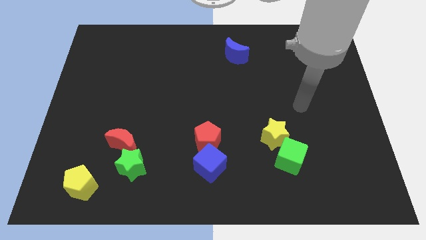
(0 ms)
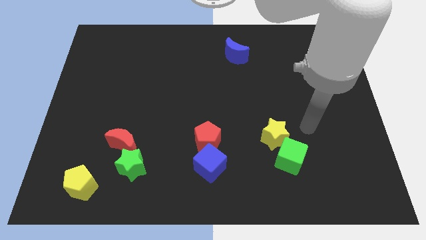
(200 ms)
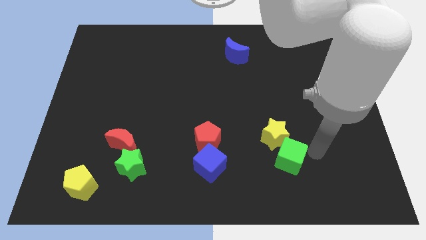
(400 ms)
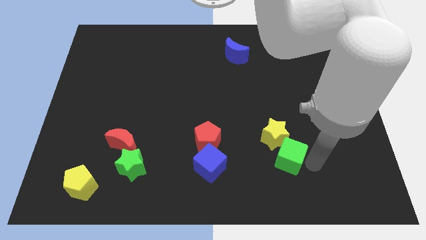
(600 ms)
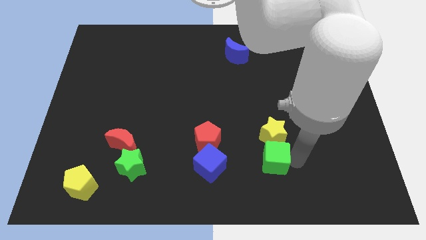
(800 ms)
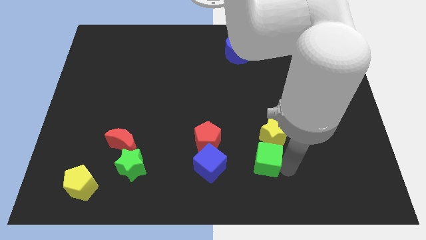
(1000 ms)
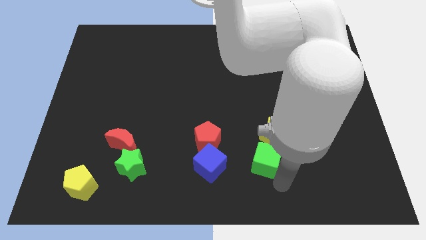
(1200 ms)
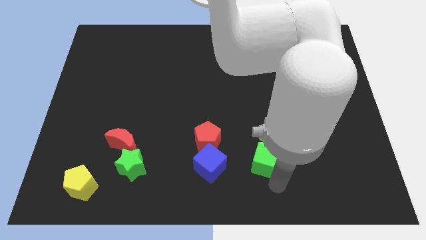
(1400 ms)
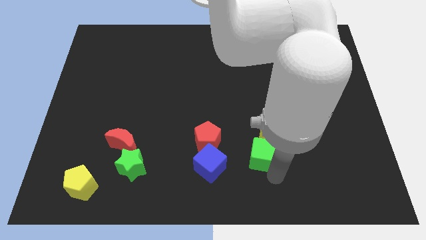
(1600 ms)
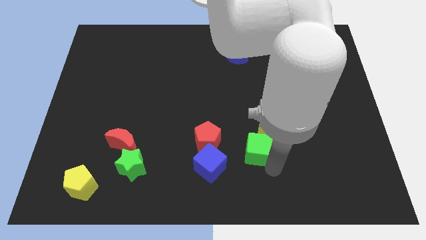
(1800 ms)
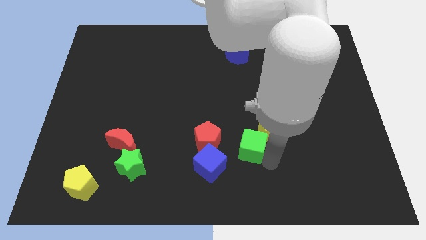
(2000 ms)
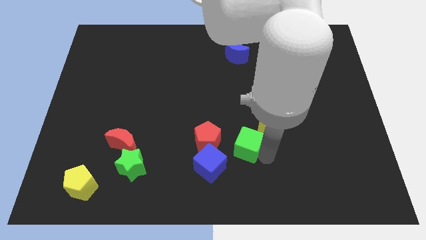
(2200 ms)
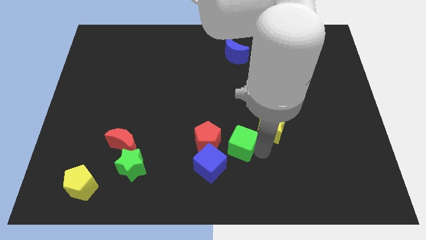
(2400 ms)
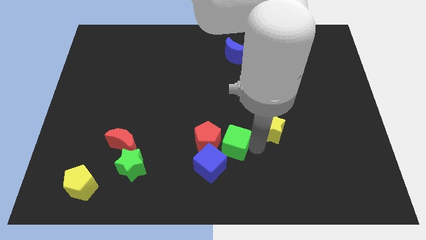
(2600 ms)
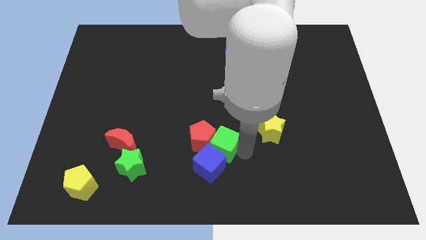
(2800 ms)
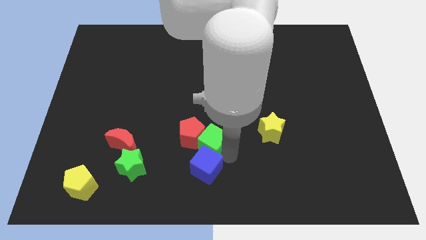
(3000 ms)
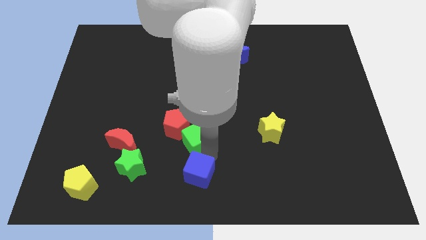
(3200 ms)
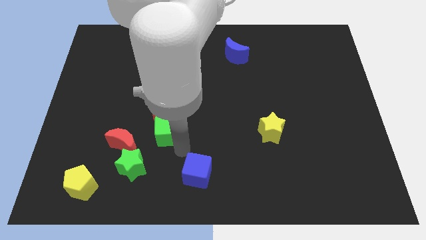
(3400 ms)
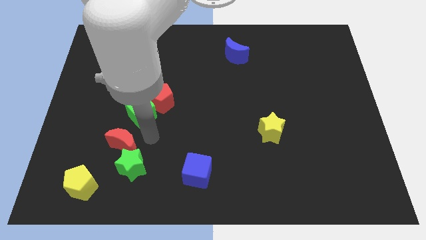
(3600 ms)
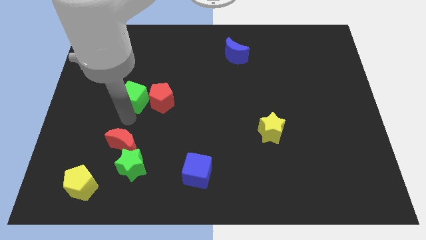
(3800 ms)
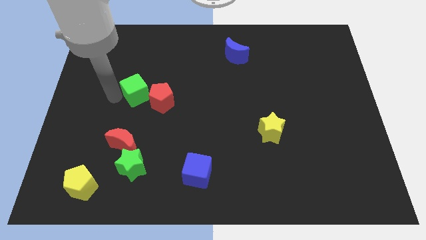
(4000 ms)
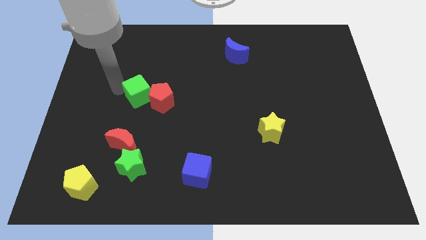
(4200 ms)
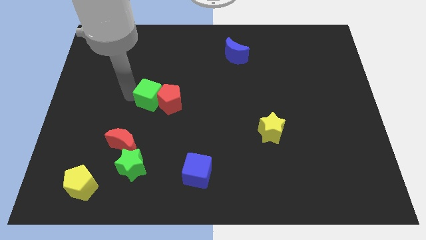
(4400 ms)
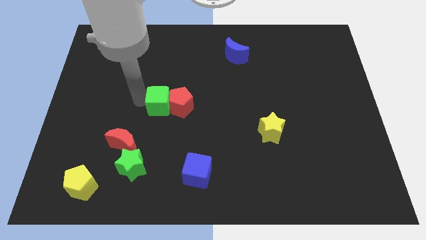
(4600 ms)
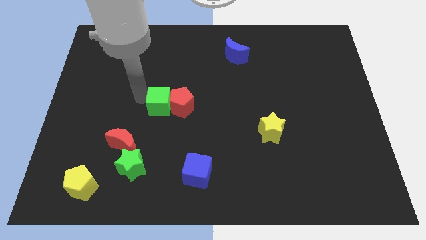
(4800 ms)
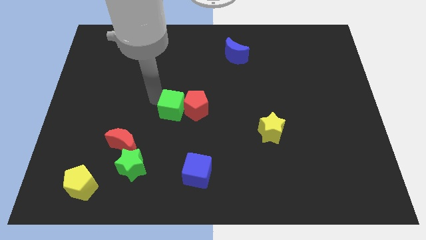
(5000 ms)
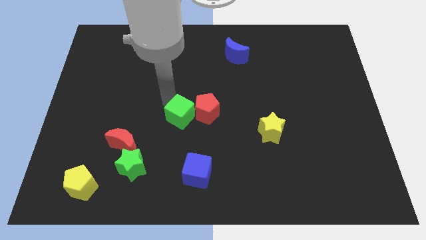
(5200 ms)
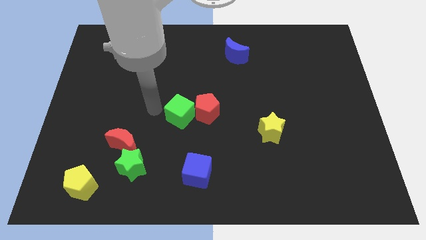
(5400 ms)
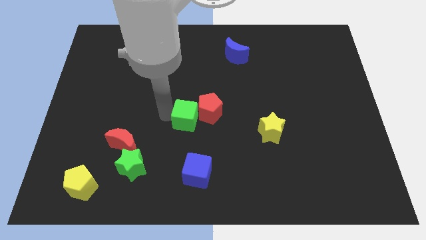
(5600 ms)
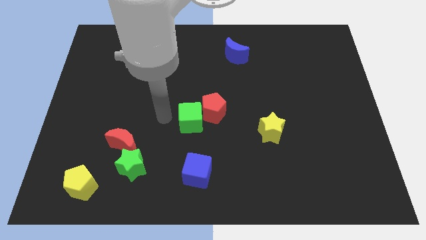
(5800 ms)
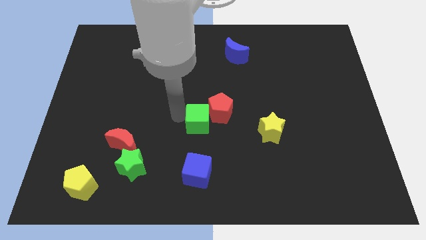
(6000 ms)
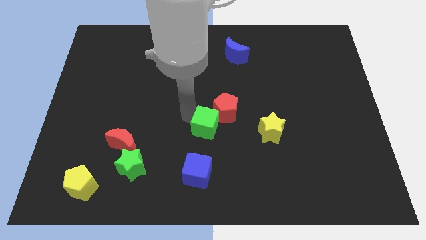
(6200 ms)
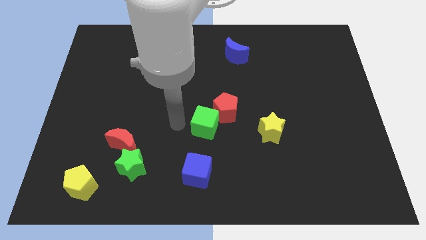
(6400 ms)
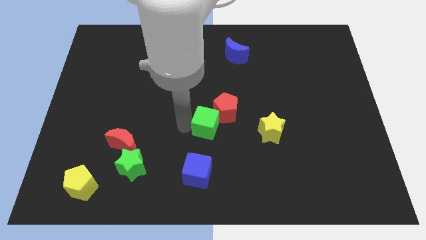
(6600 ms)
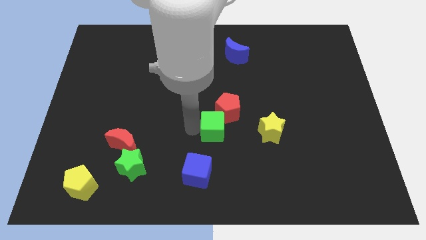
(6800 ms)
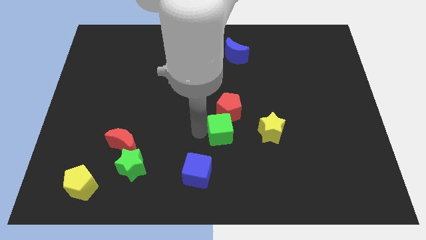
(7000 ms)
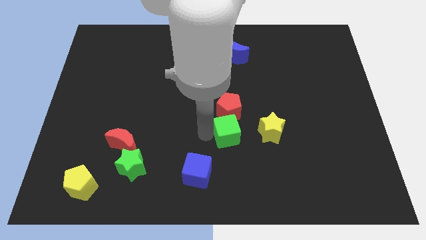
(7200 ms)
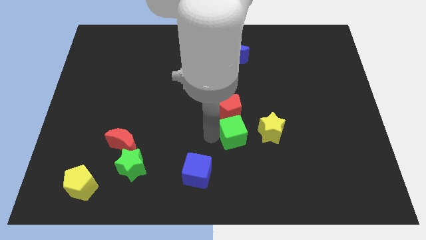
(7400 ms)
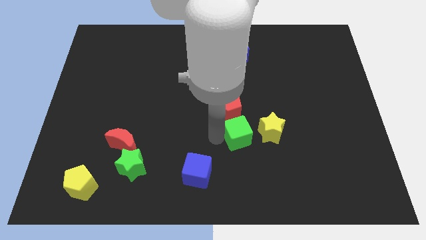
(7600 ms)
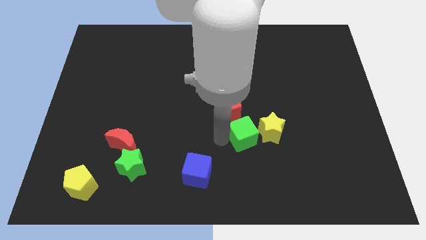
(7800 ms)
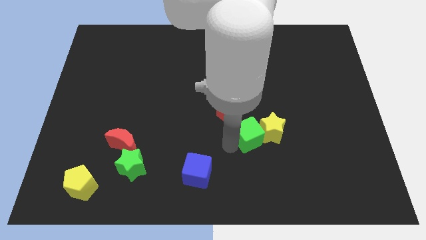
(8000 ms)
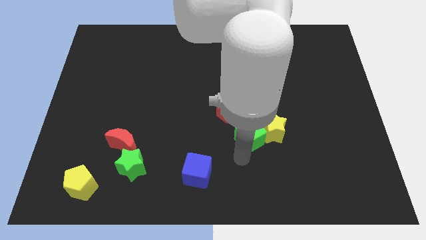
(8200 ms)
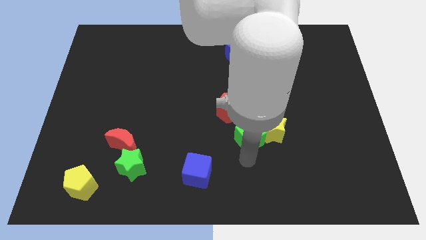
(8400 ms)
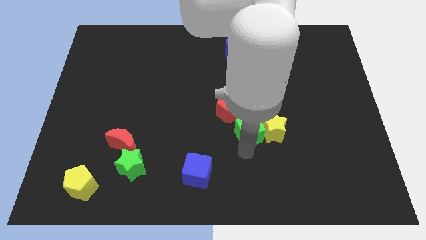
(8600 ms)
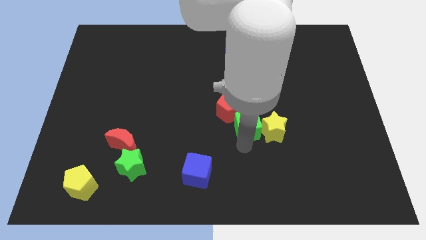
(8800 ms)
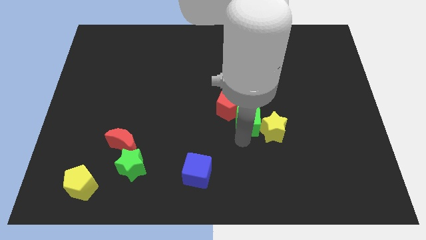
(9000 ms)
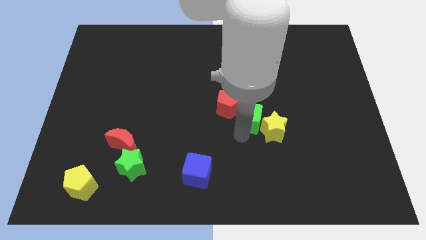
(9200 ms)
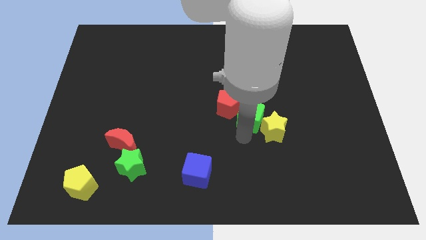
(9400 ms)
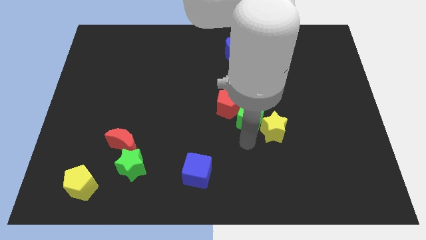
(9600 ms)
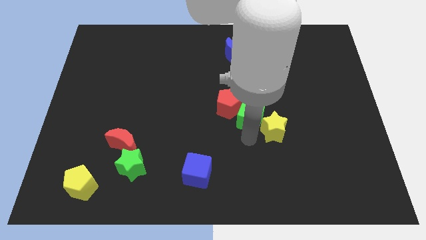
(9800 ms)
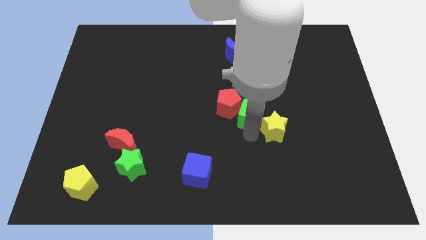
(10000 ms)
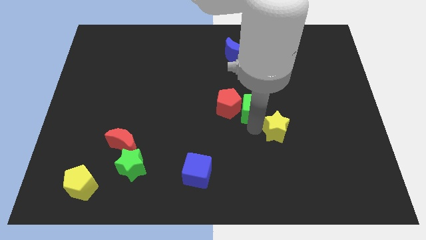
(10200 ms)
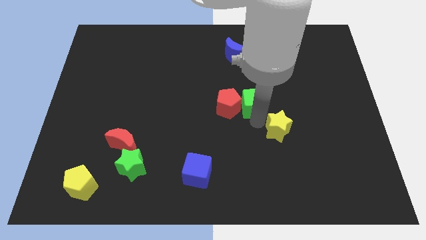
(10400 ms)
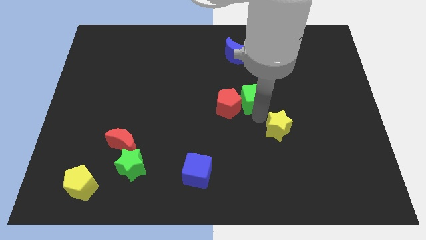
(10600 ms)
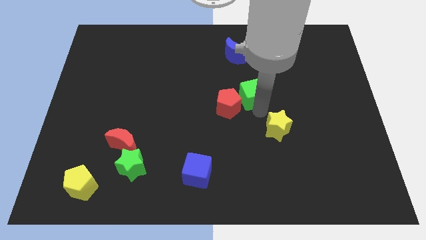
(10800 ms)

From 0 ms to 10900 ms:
put the green cube to the bottom side of the blue moon

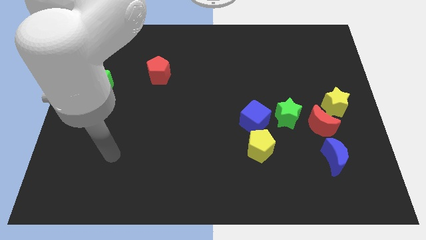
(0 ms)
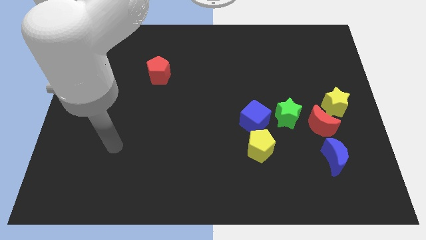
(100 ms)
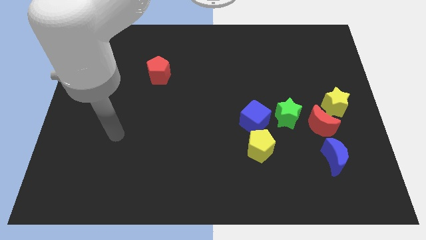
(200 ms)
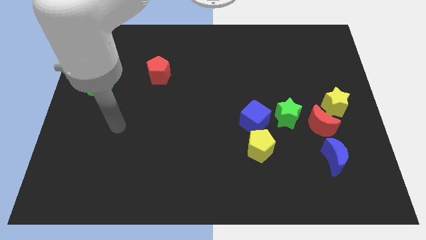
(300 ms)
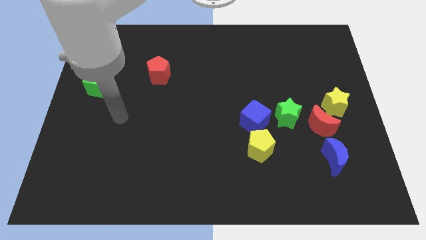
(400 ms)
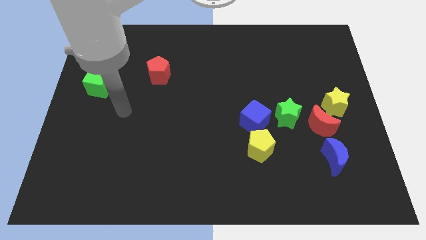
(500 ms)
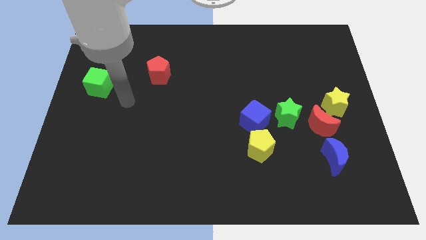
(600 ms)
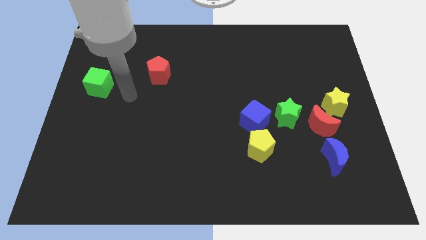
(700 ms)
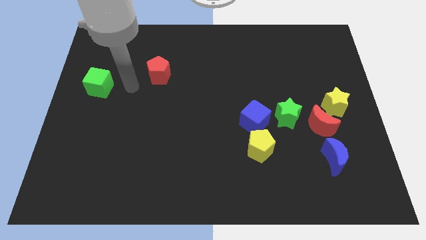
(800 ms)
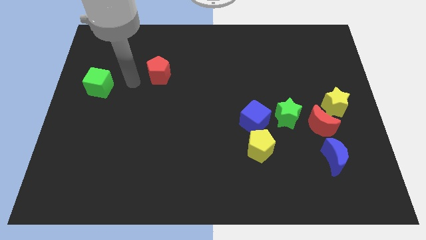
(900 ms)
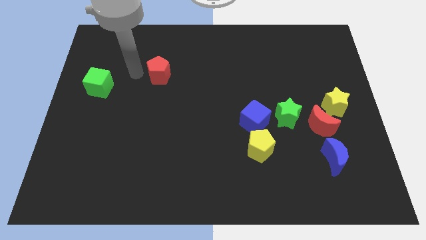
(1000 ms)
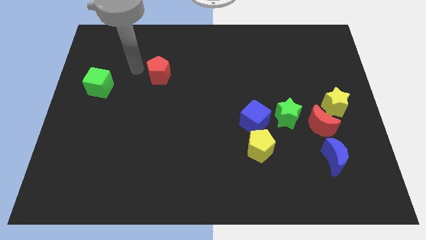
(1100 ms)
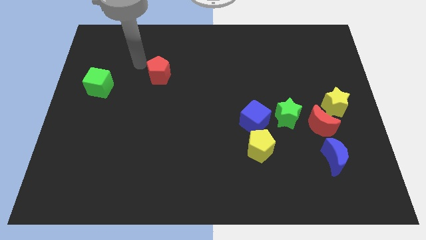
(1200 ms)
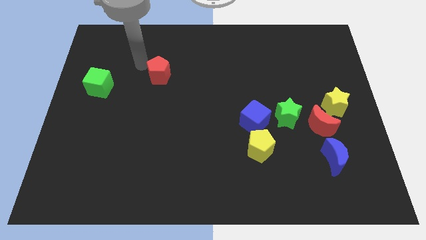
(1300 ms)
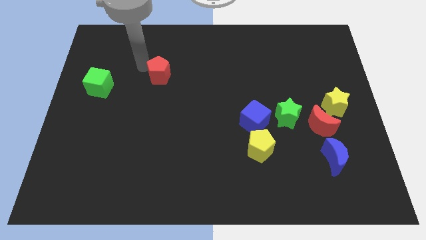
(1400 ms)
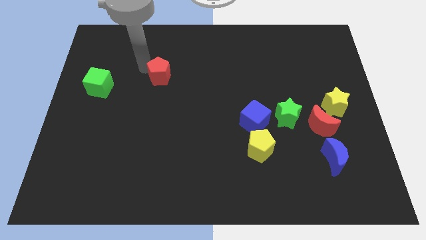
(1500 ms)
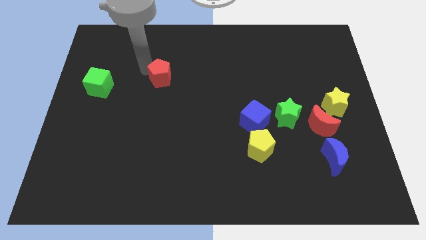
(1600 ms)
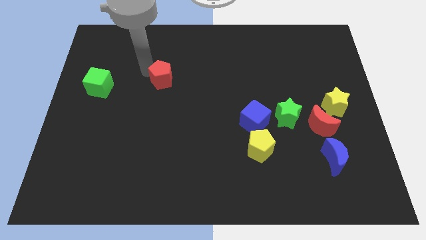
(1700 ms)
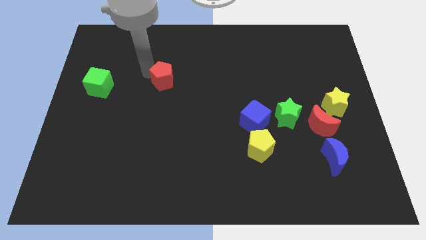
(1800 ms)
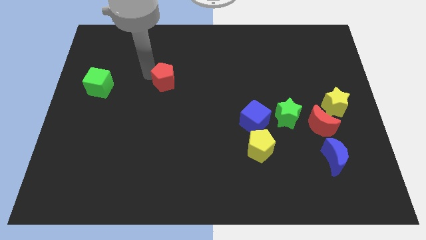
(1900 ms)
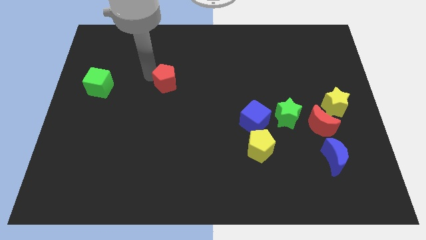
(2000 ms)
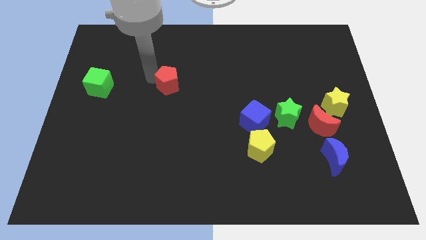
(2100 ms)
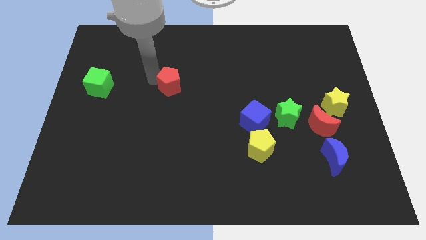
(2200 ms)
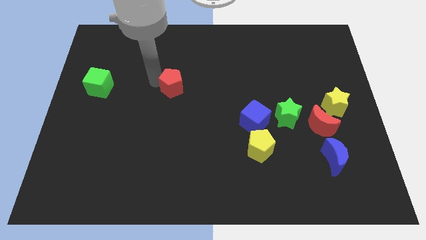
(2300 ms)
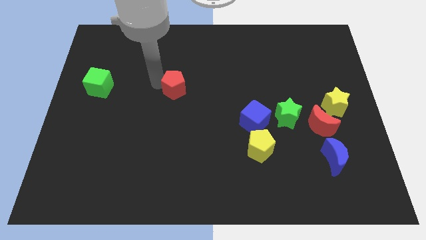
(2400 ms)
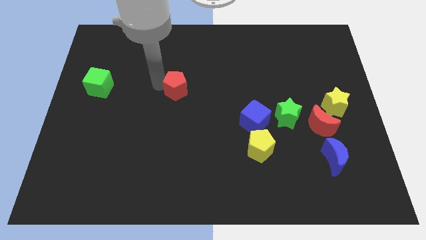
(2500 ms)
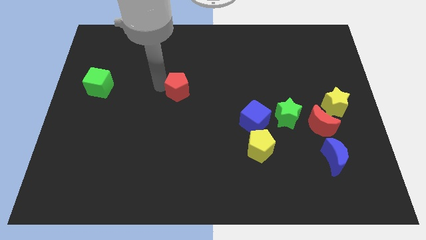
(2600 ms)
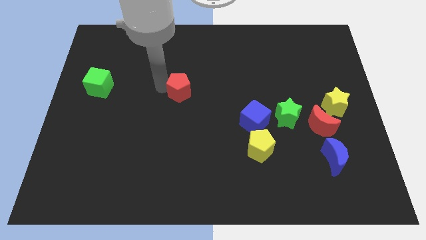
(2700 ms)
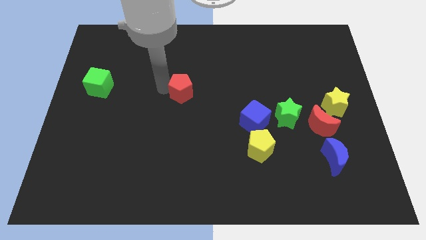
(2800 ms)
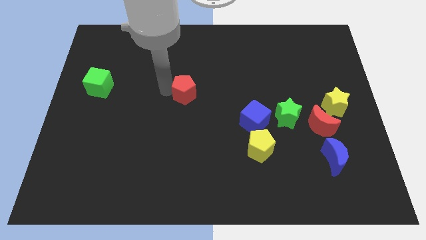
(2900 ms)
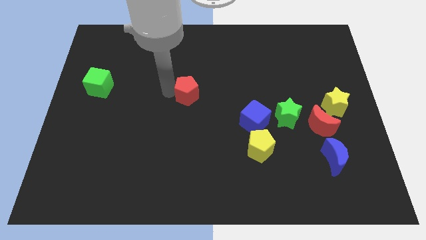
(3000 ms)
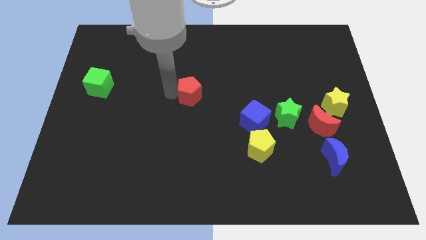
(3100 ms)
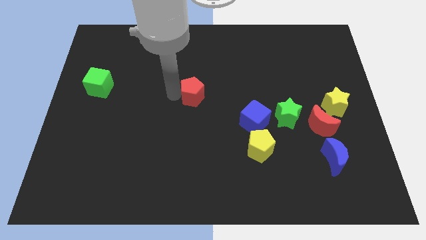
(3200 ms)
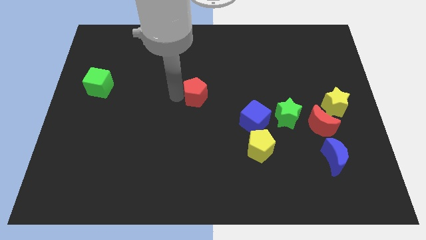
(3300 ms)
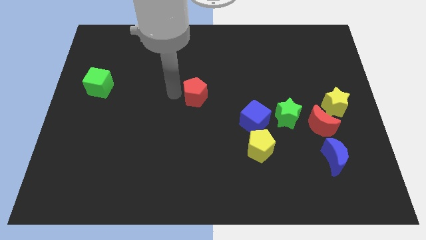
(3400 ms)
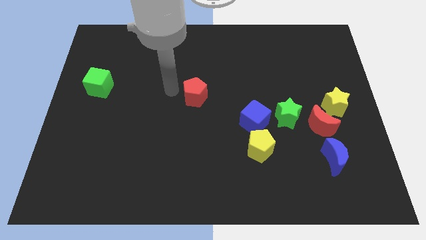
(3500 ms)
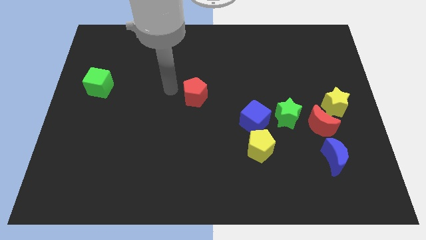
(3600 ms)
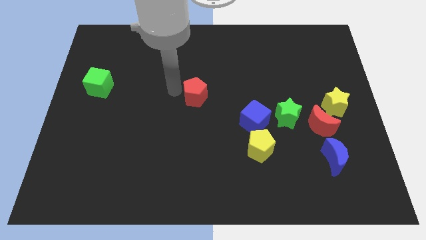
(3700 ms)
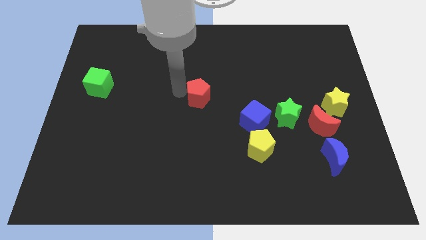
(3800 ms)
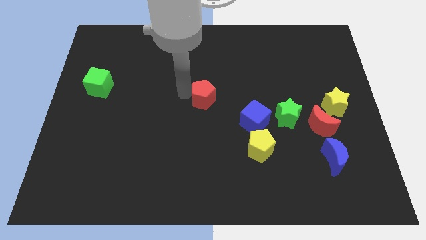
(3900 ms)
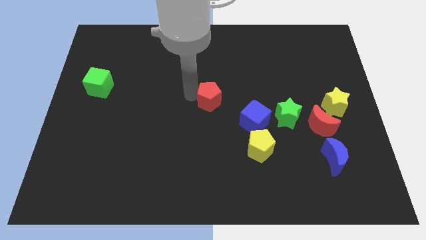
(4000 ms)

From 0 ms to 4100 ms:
push the red pentagon diagonally up and to the left of the blue cube
